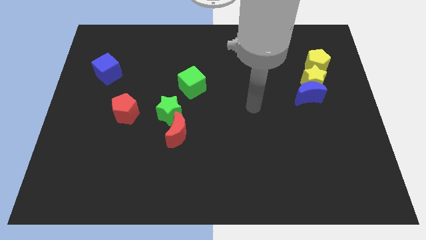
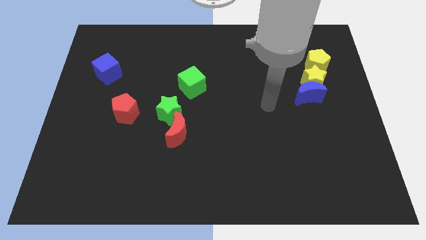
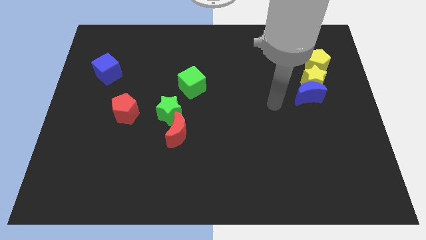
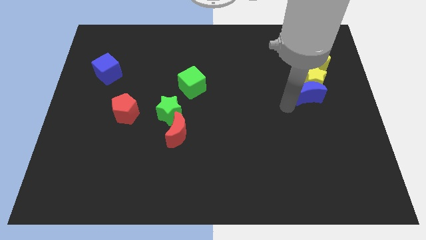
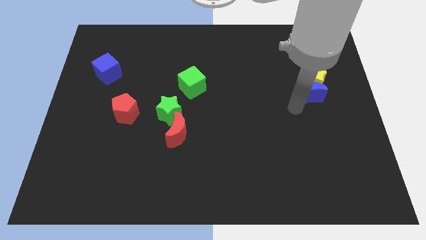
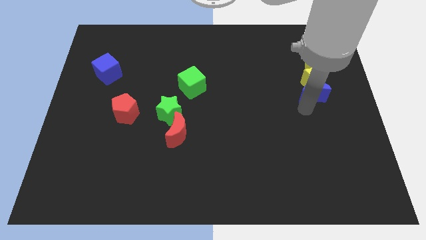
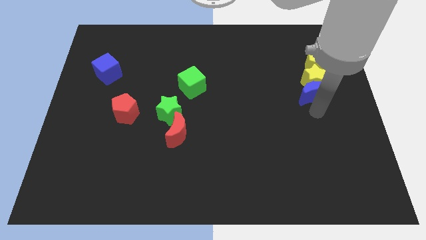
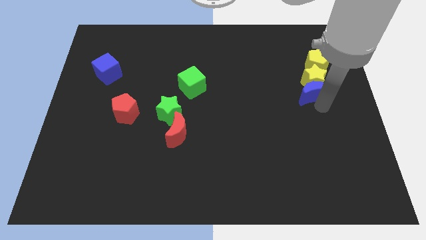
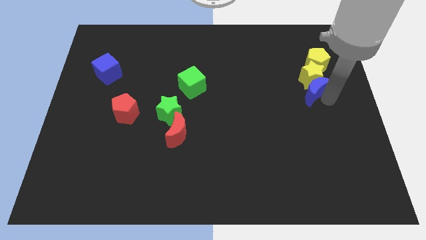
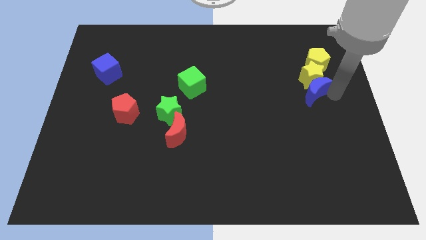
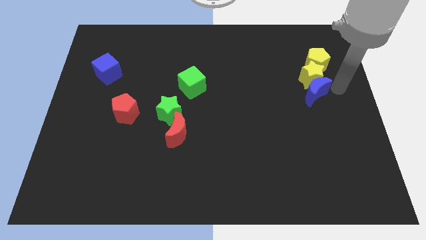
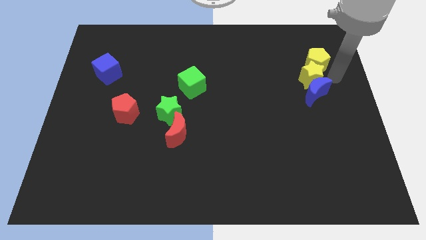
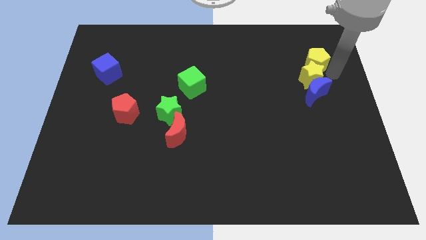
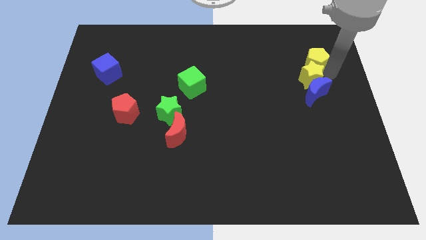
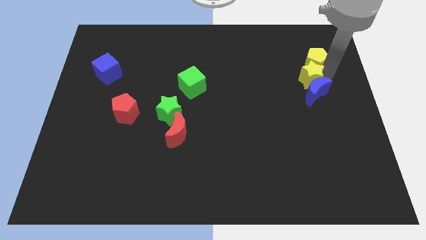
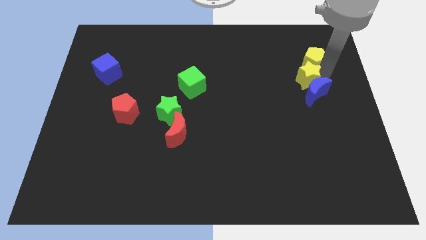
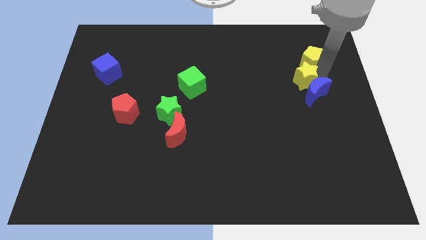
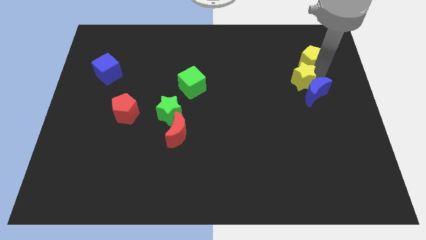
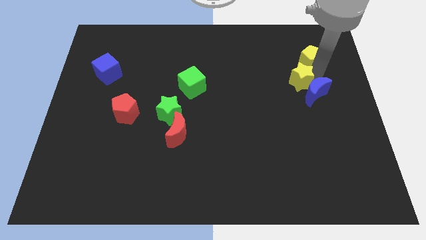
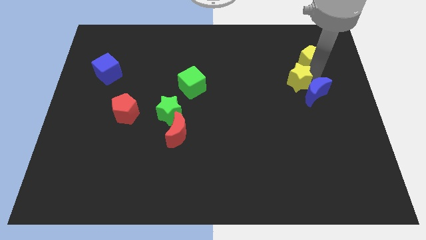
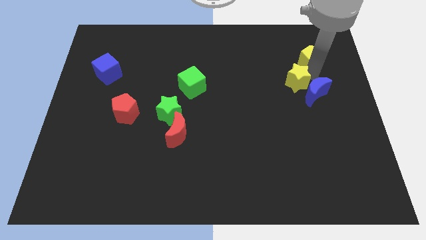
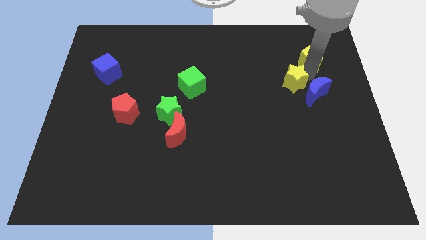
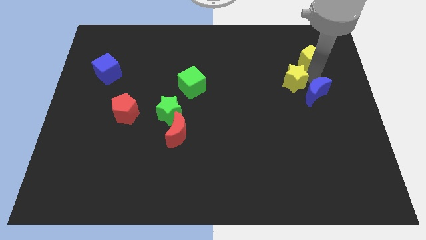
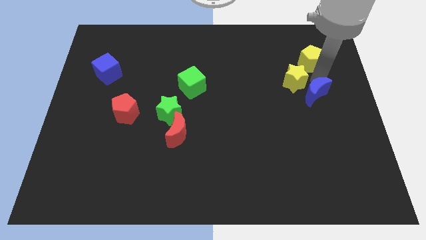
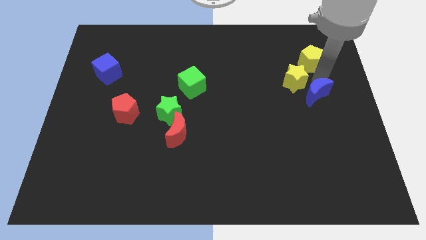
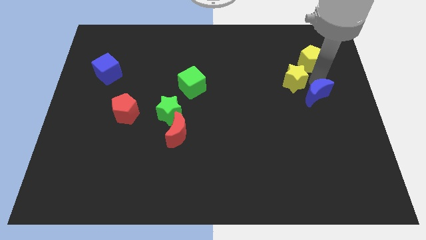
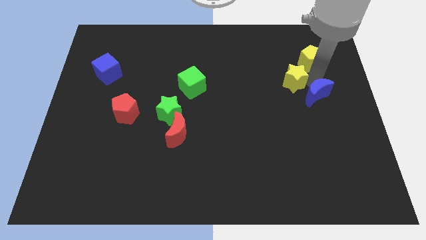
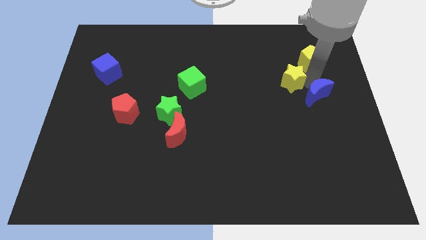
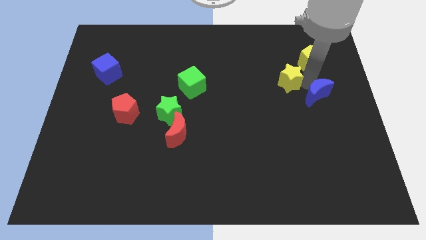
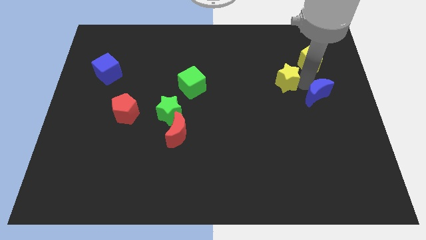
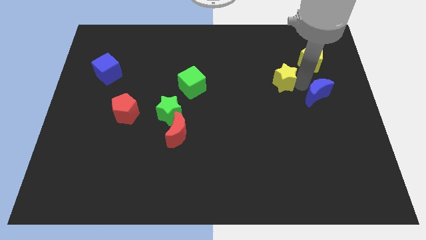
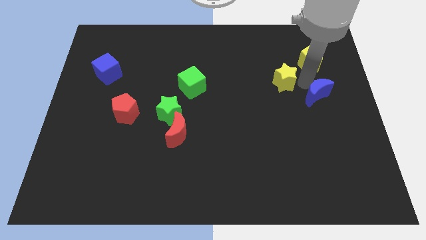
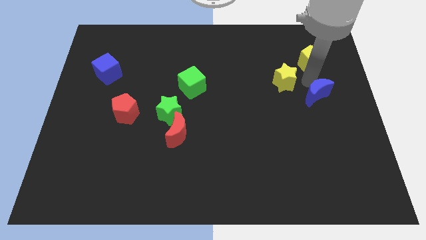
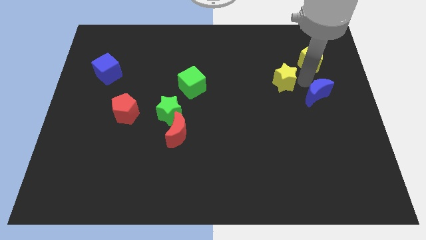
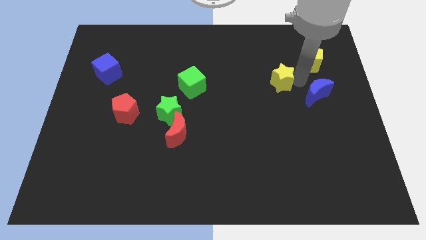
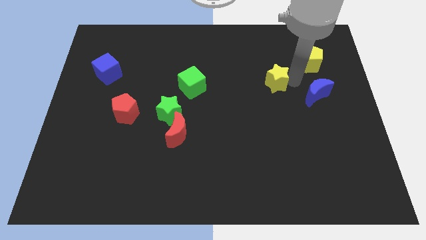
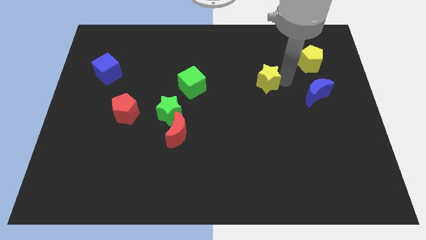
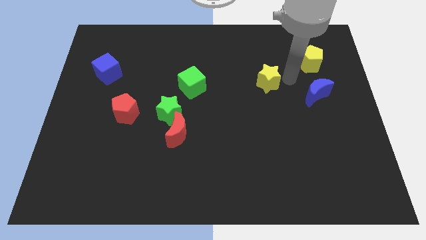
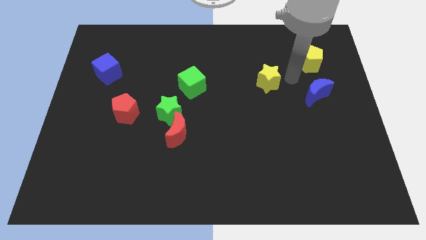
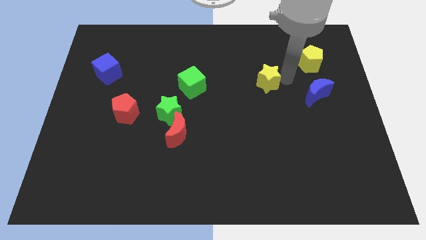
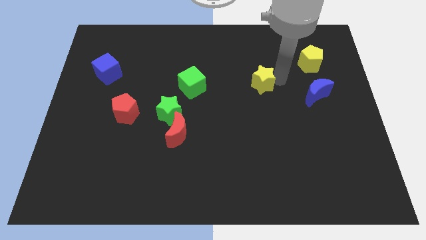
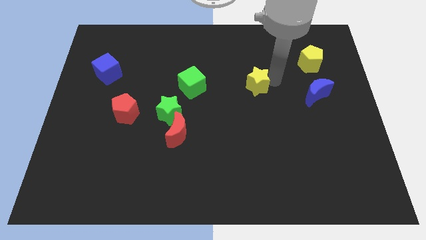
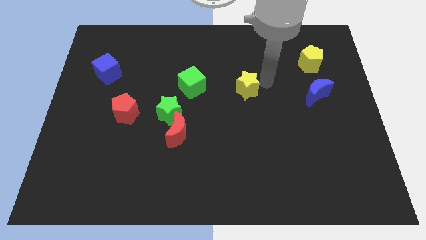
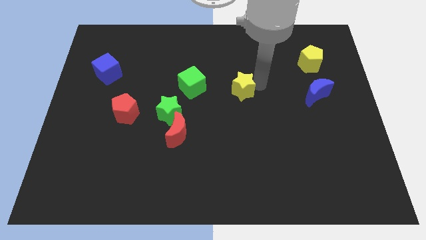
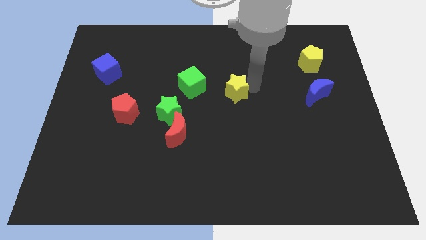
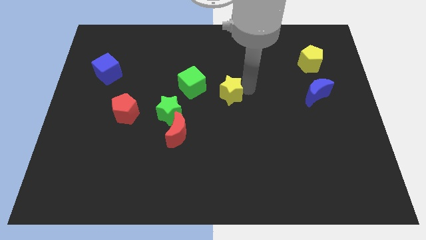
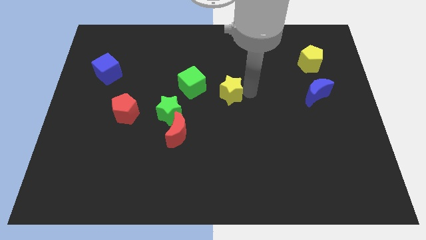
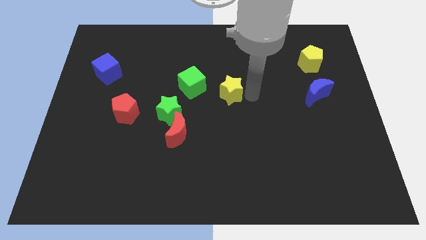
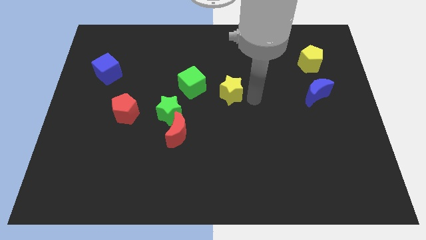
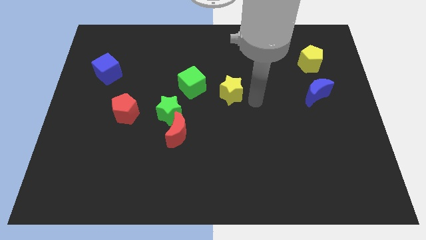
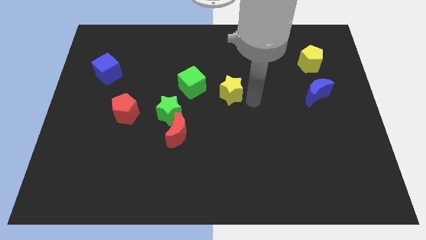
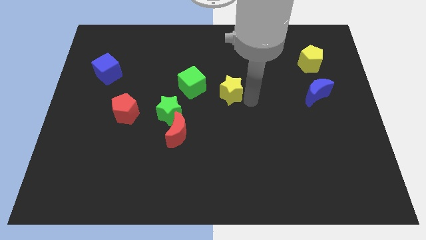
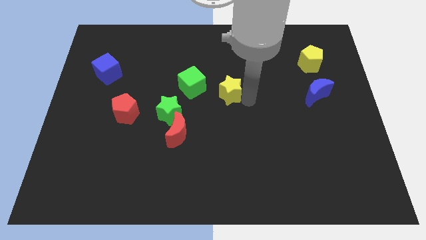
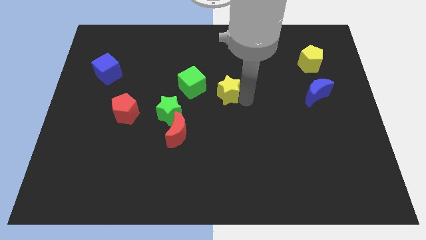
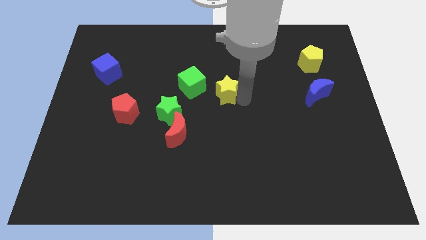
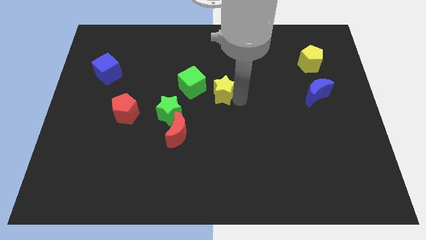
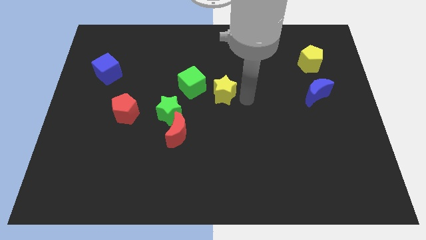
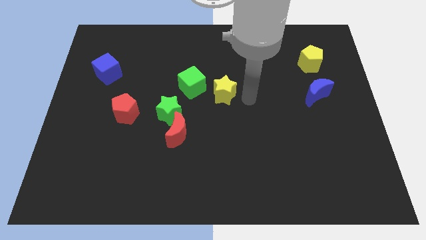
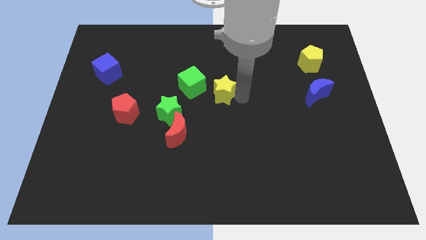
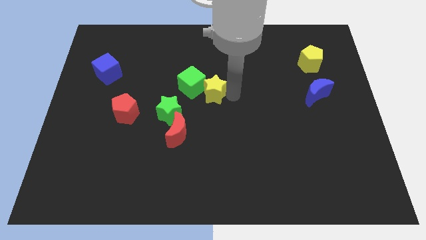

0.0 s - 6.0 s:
move the yellow star towards the green cube

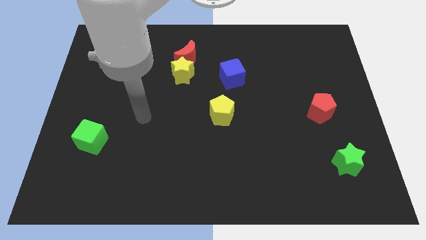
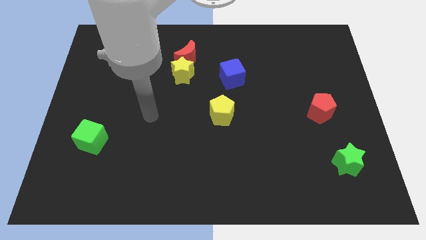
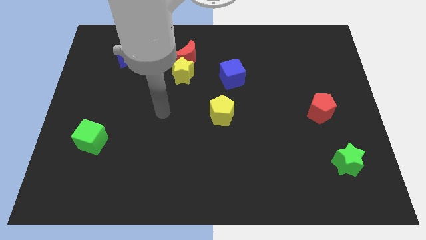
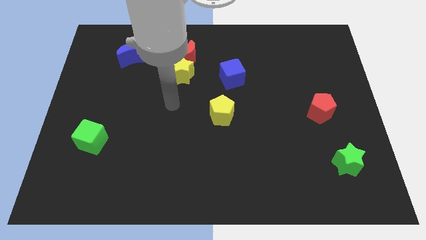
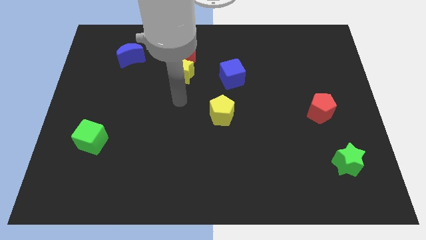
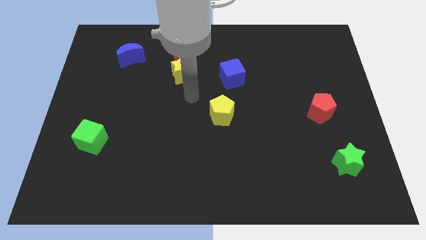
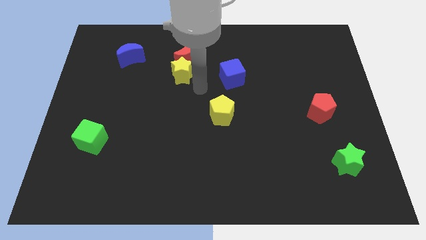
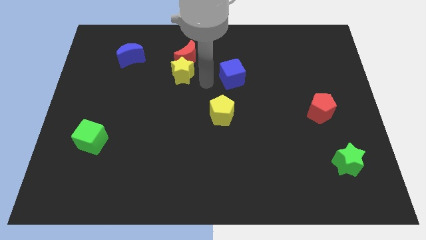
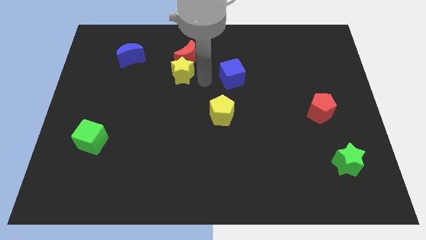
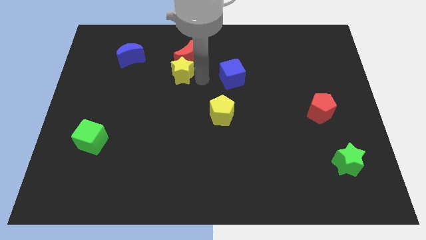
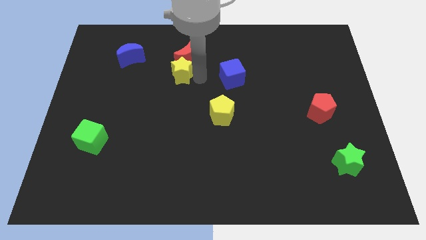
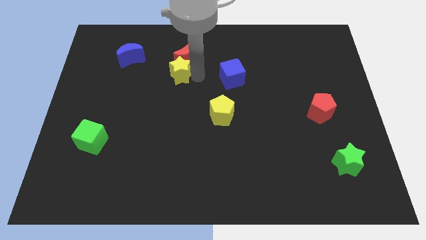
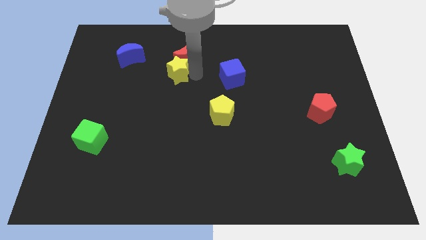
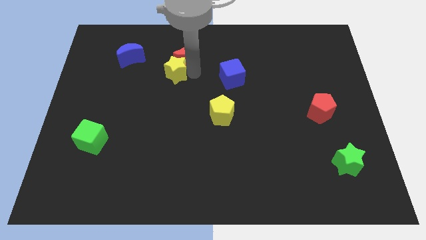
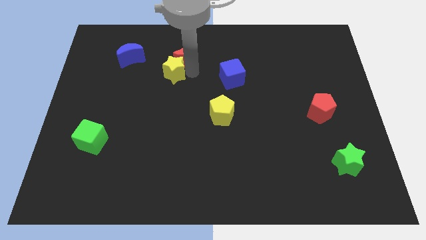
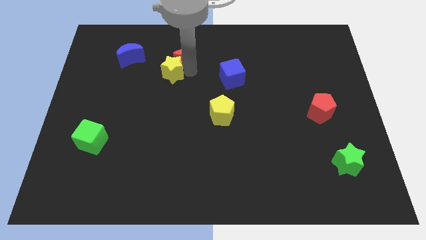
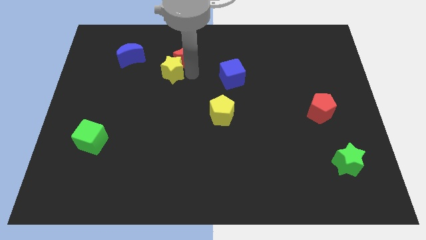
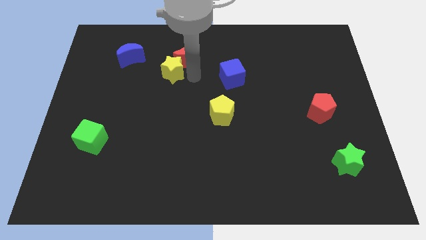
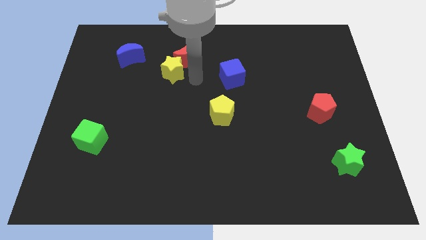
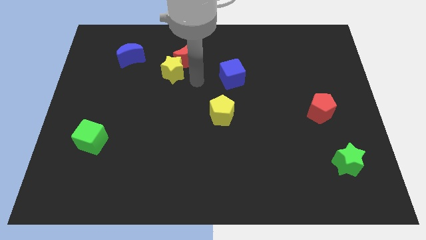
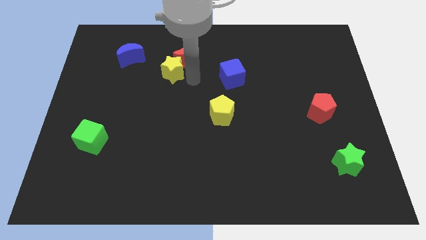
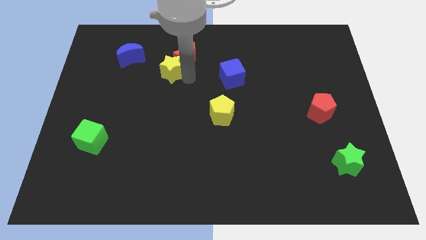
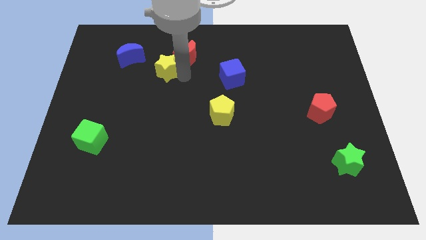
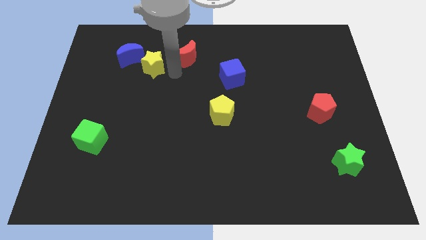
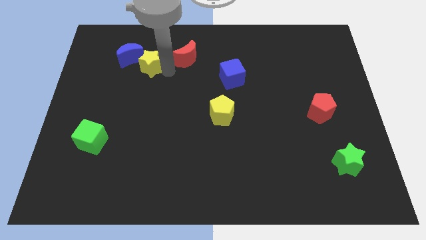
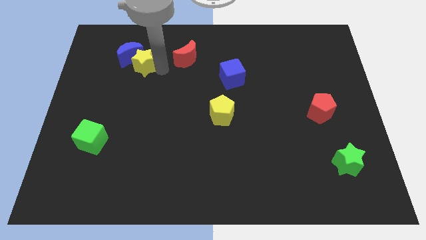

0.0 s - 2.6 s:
move the yellow star to the blue moon
